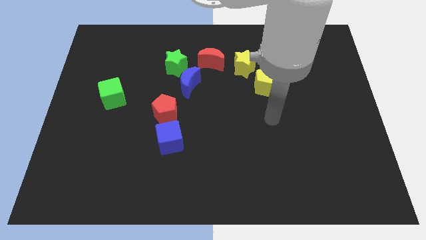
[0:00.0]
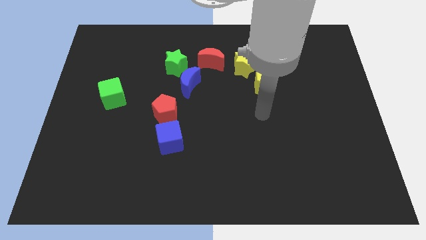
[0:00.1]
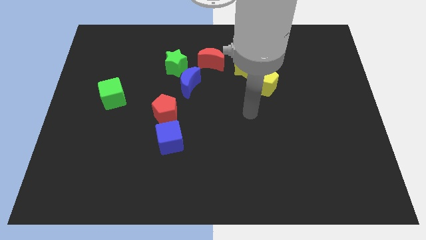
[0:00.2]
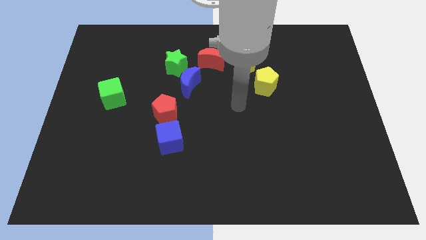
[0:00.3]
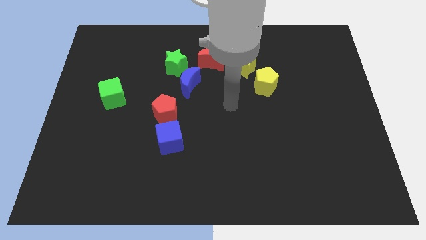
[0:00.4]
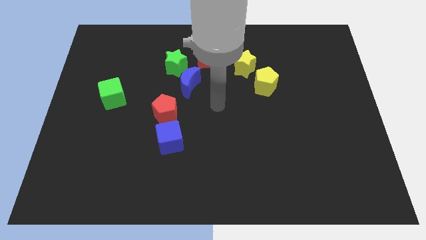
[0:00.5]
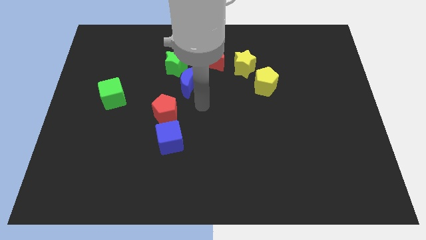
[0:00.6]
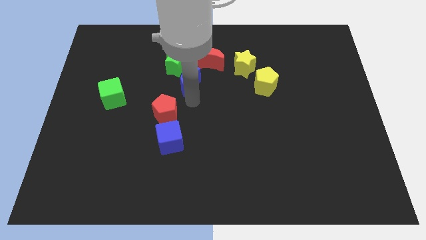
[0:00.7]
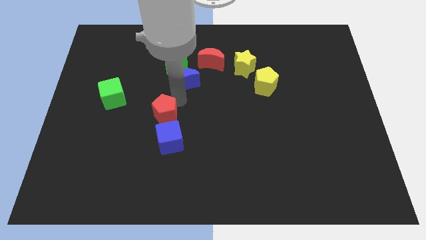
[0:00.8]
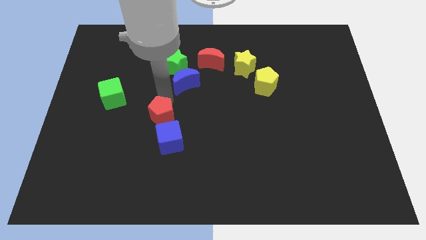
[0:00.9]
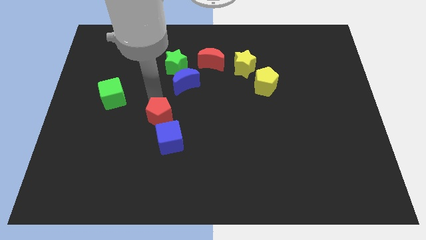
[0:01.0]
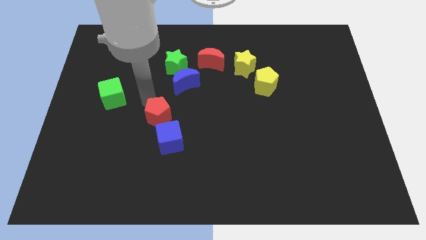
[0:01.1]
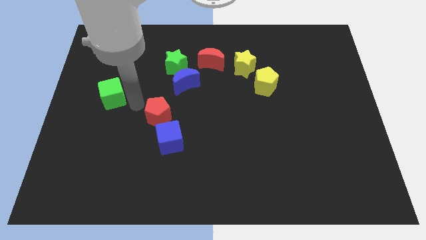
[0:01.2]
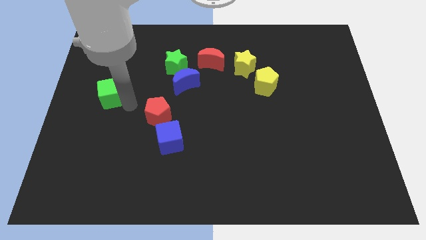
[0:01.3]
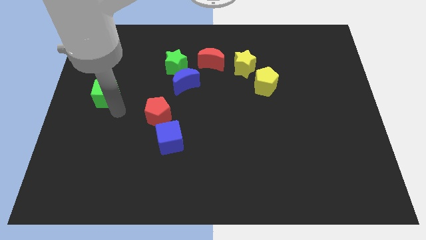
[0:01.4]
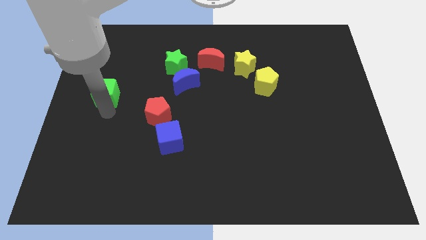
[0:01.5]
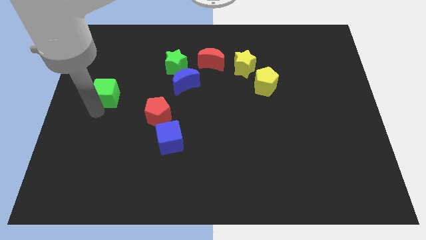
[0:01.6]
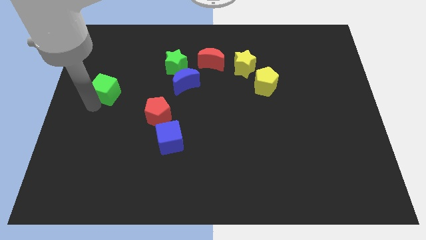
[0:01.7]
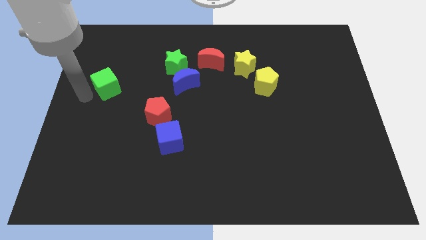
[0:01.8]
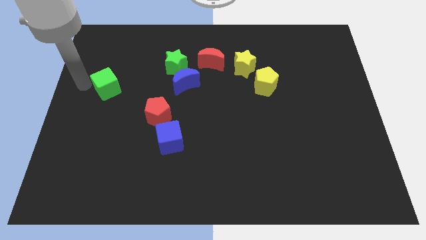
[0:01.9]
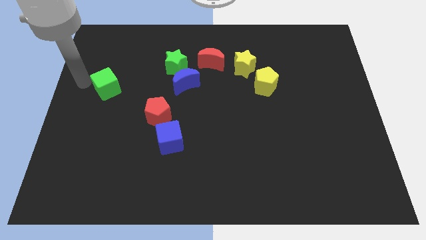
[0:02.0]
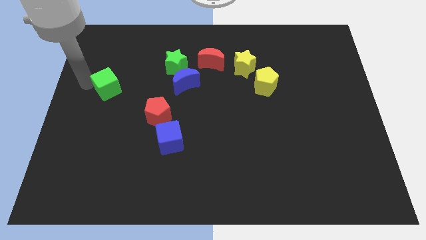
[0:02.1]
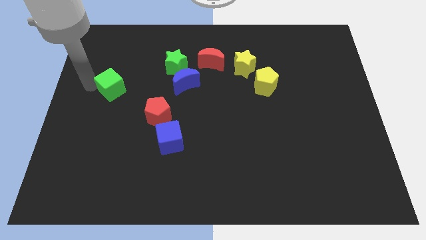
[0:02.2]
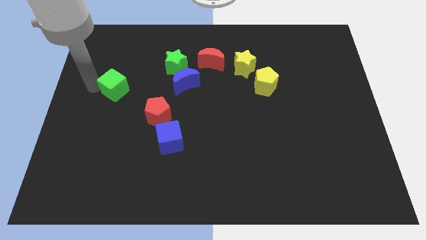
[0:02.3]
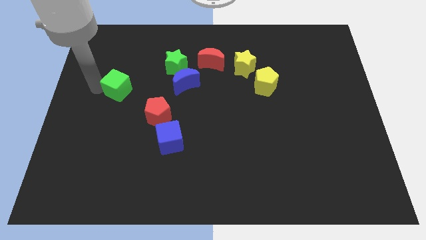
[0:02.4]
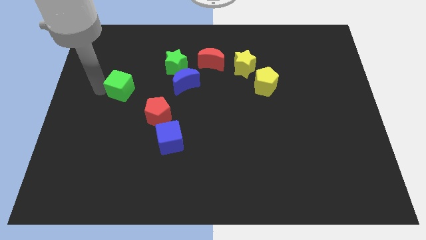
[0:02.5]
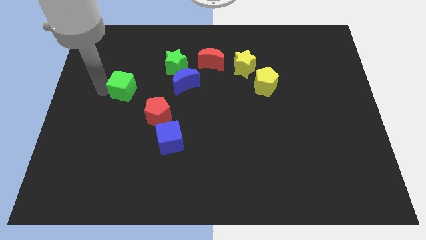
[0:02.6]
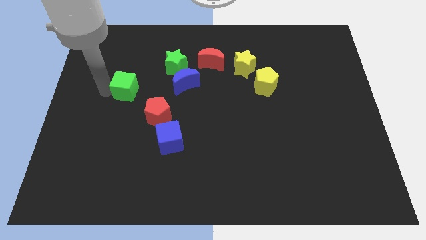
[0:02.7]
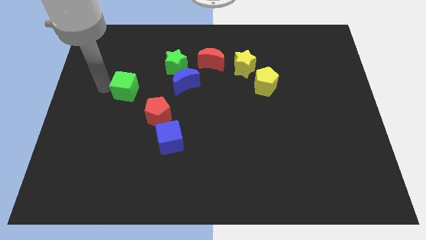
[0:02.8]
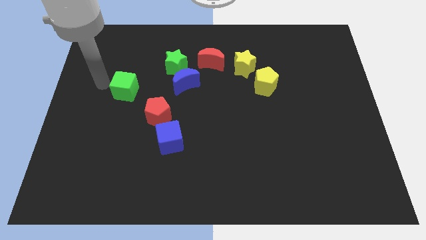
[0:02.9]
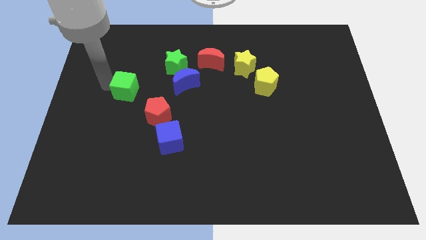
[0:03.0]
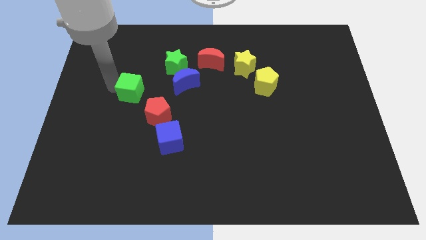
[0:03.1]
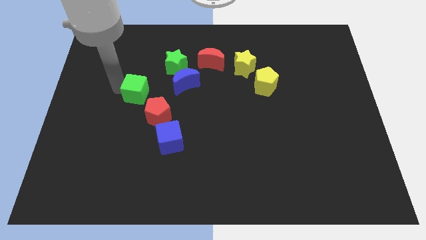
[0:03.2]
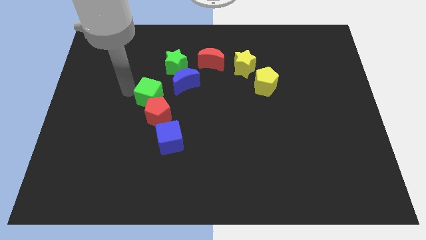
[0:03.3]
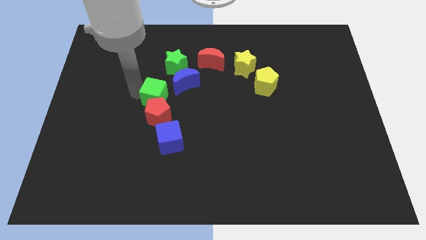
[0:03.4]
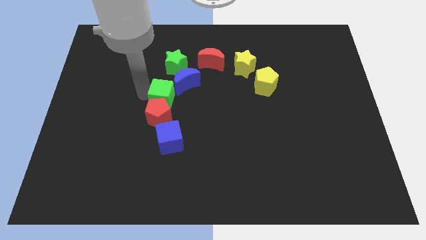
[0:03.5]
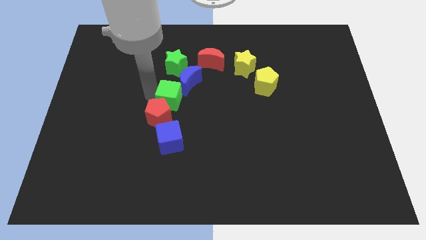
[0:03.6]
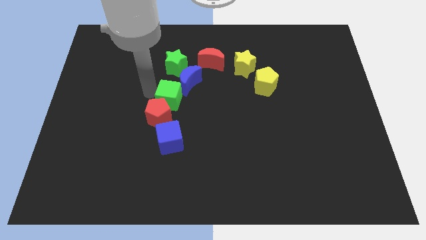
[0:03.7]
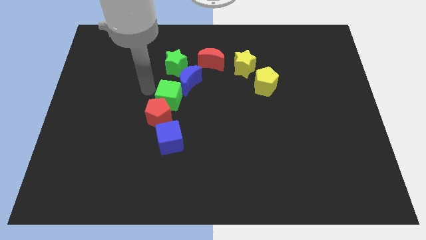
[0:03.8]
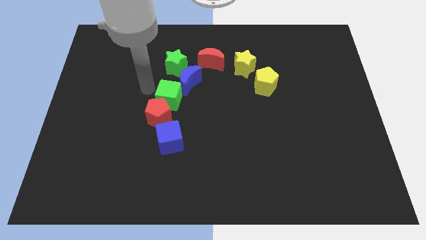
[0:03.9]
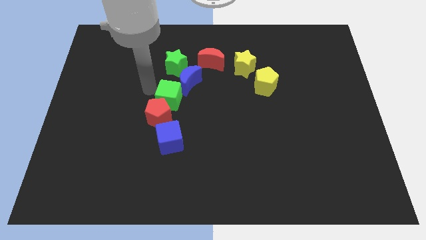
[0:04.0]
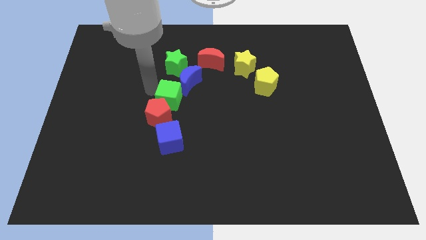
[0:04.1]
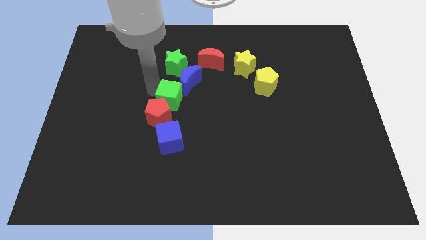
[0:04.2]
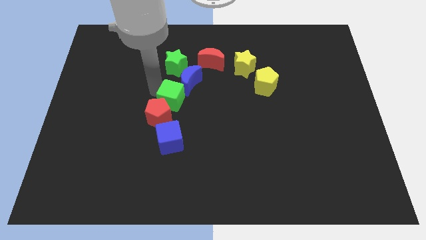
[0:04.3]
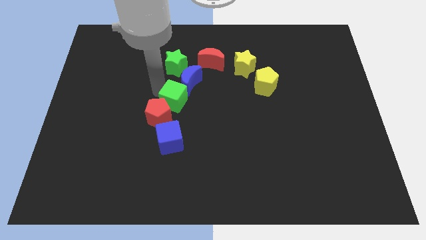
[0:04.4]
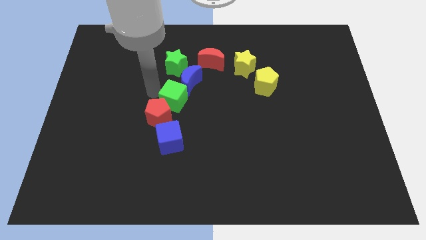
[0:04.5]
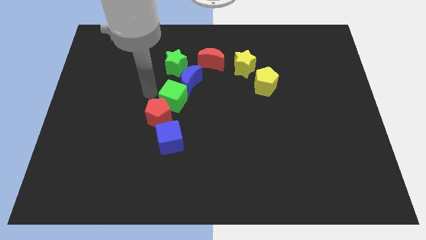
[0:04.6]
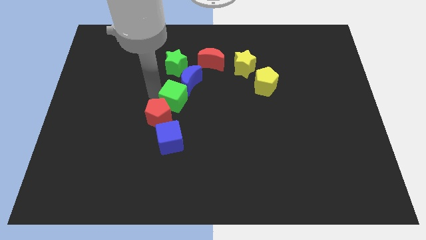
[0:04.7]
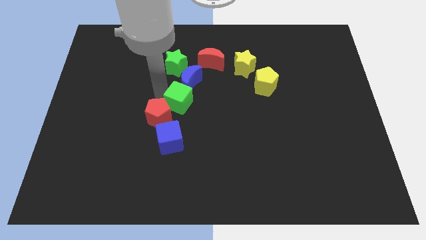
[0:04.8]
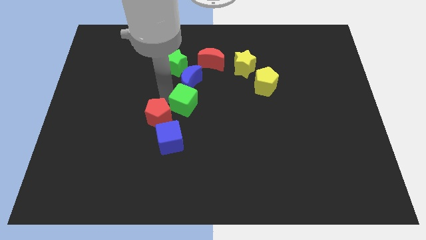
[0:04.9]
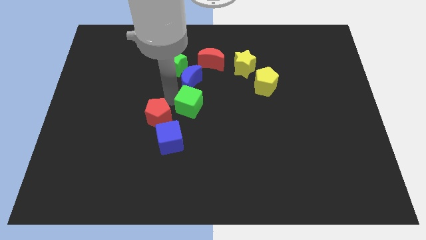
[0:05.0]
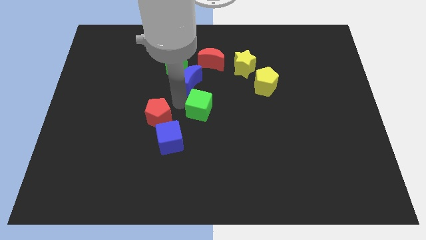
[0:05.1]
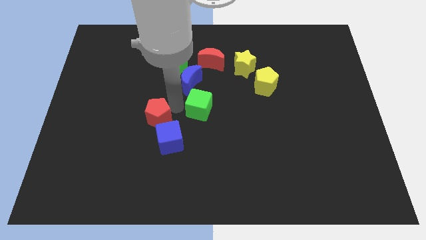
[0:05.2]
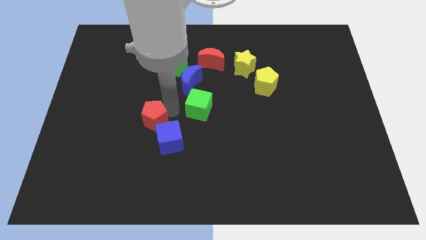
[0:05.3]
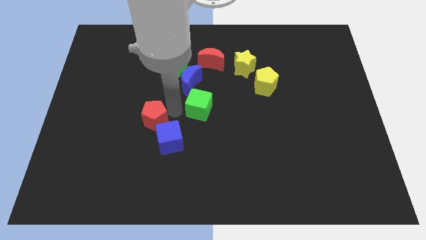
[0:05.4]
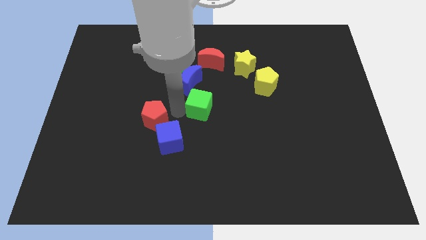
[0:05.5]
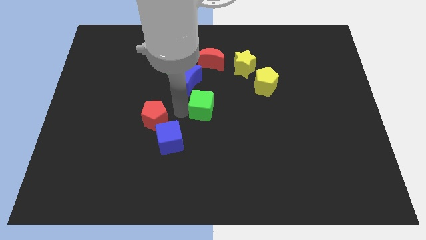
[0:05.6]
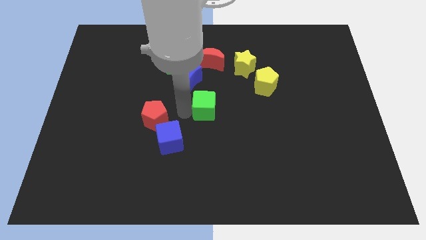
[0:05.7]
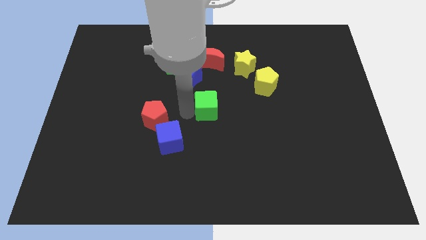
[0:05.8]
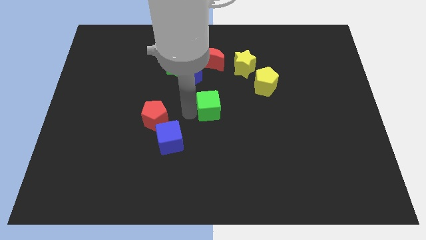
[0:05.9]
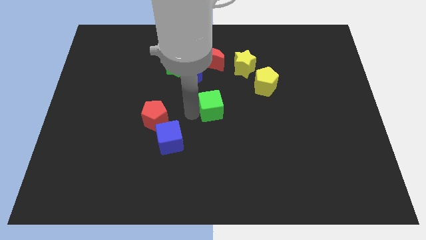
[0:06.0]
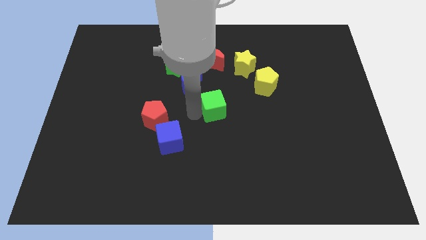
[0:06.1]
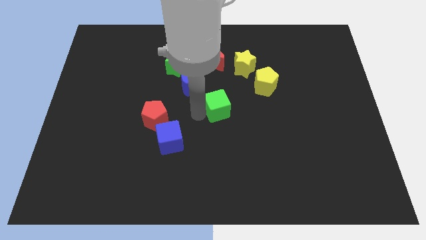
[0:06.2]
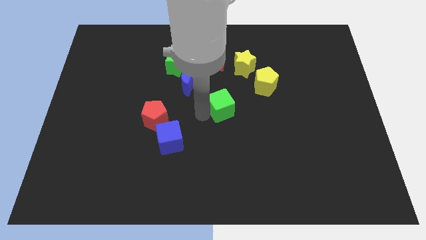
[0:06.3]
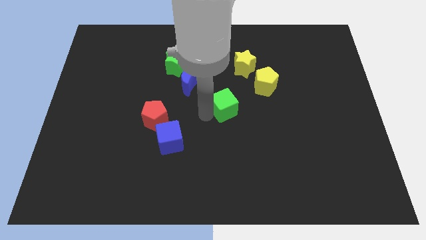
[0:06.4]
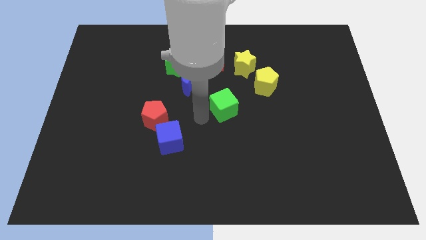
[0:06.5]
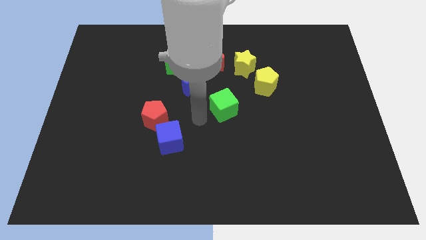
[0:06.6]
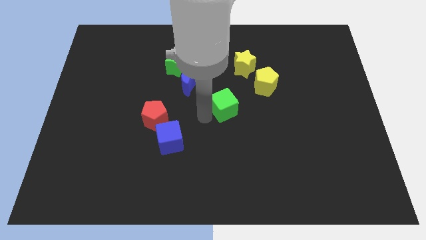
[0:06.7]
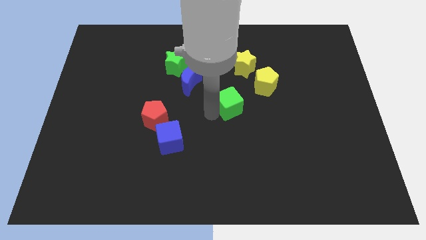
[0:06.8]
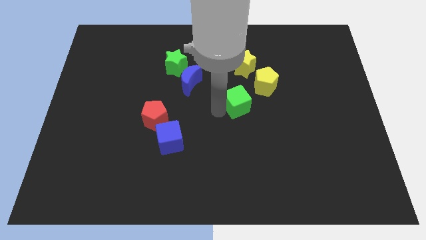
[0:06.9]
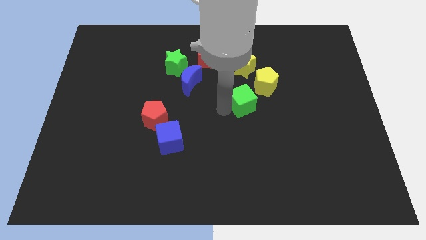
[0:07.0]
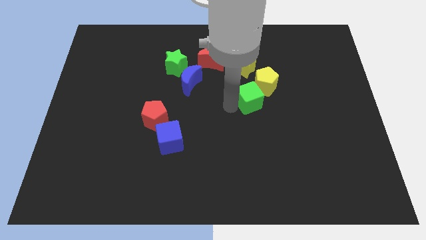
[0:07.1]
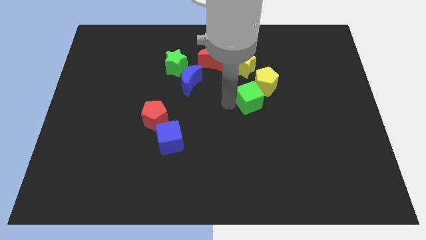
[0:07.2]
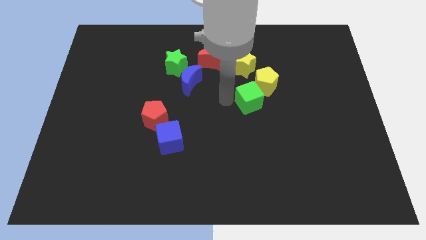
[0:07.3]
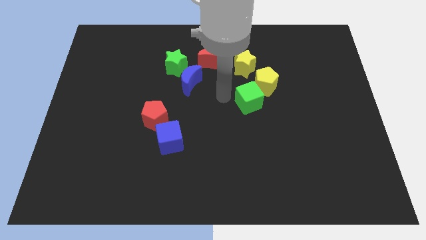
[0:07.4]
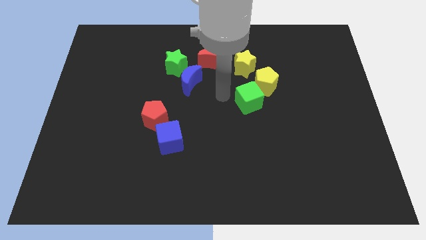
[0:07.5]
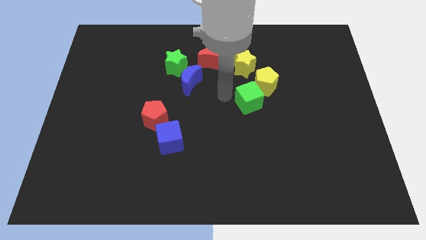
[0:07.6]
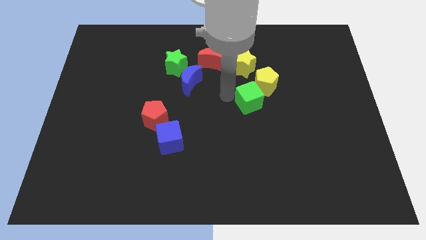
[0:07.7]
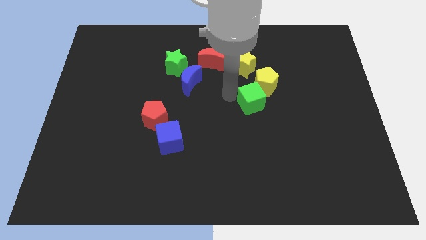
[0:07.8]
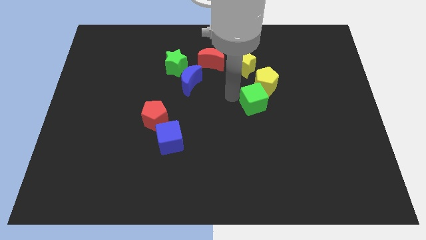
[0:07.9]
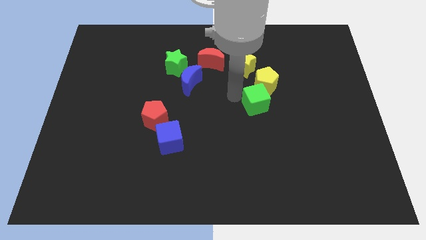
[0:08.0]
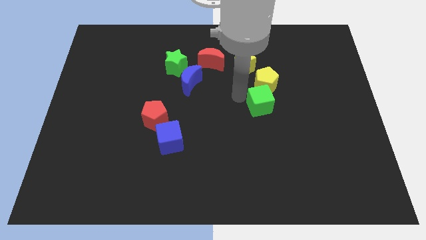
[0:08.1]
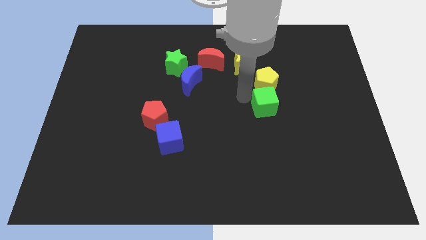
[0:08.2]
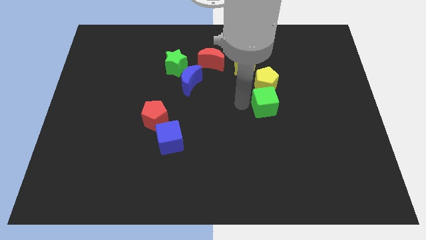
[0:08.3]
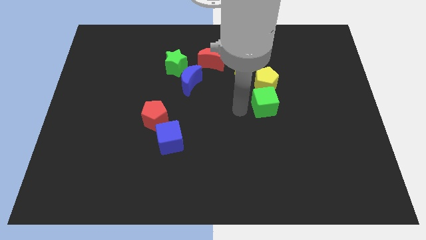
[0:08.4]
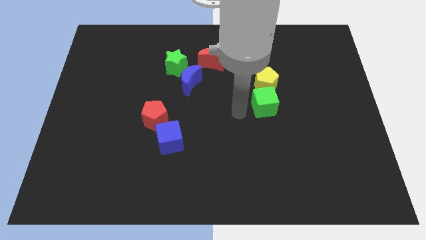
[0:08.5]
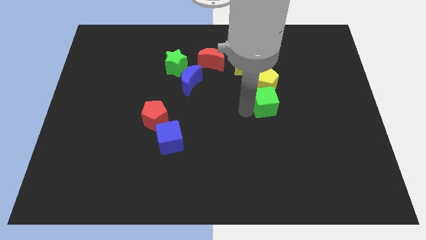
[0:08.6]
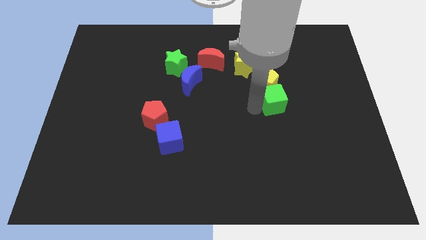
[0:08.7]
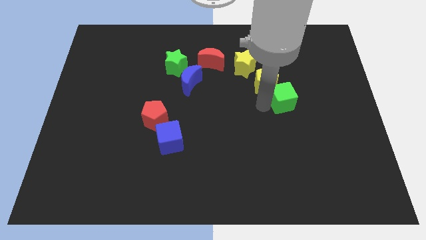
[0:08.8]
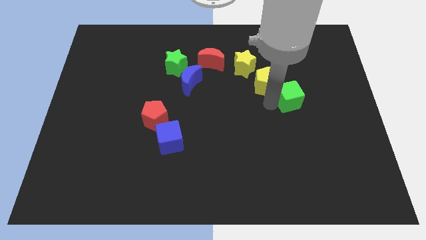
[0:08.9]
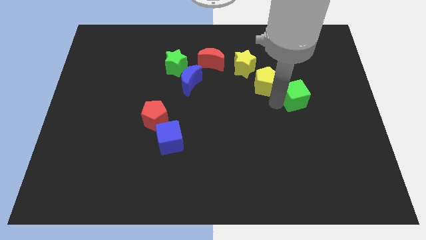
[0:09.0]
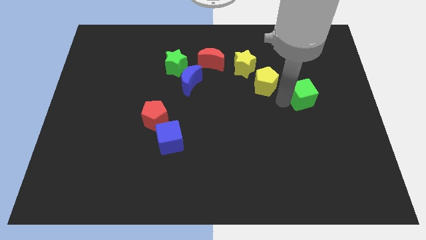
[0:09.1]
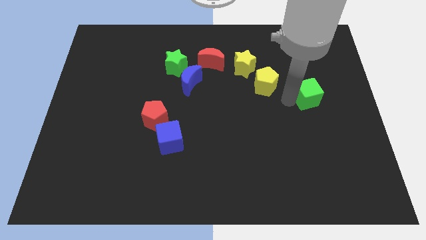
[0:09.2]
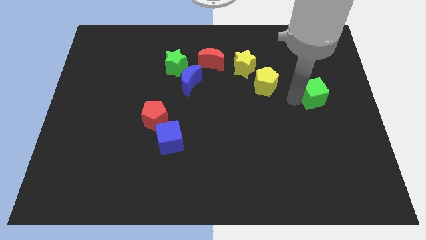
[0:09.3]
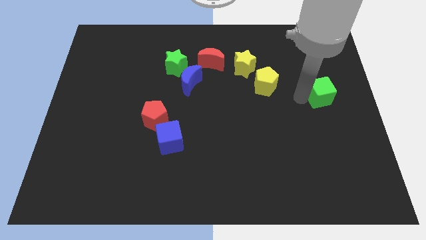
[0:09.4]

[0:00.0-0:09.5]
slide the green cube to the right side of the board
